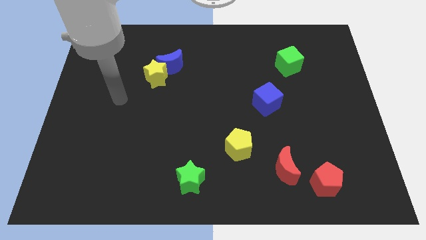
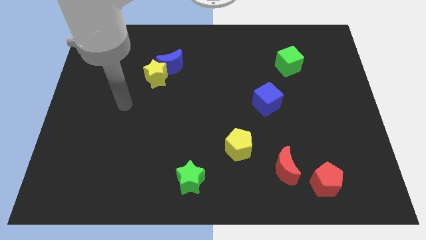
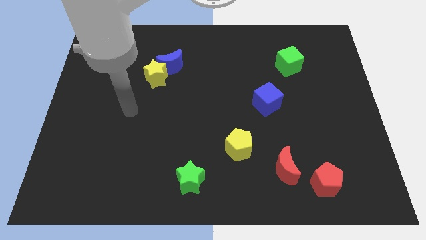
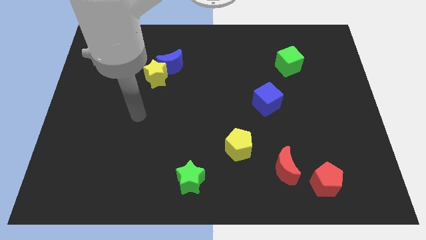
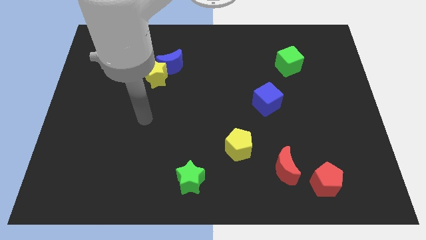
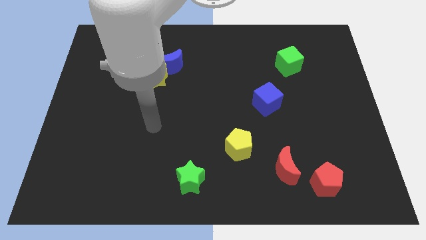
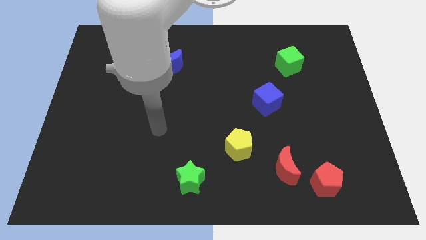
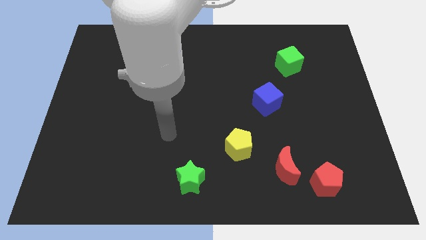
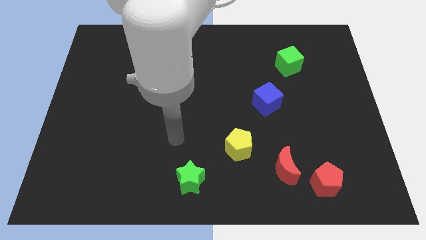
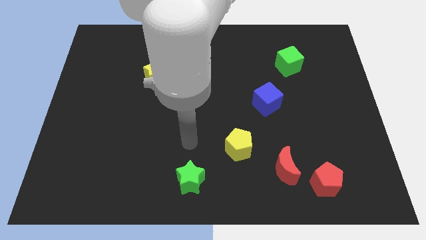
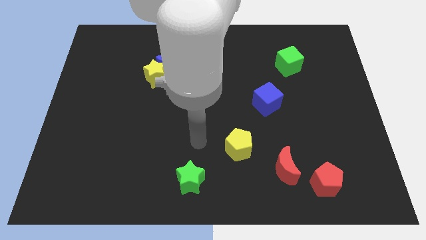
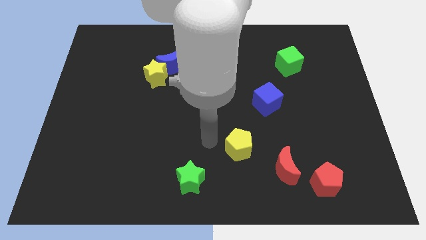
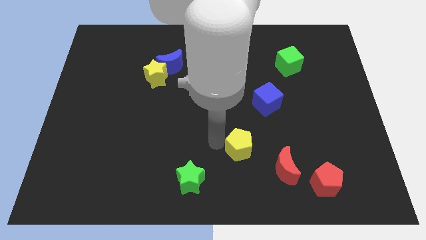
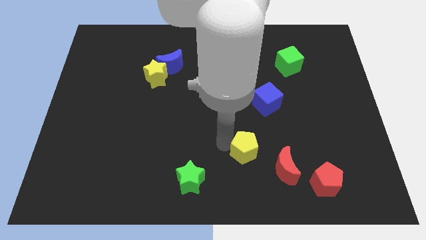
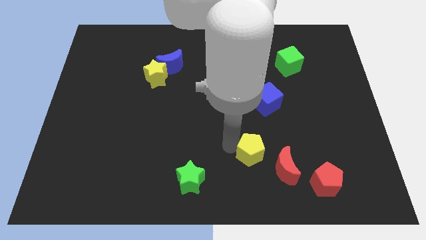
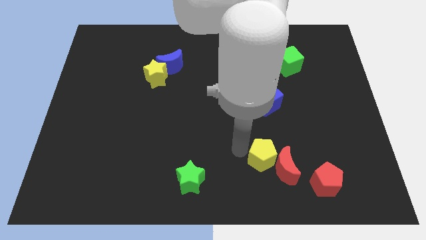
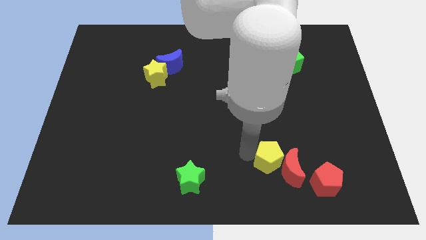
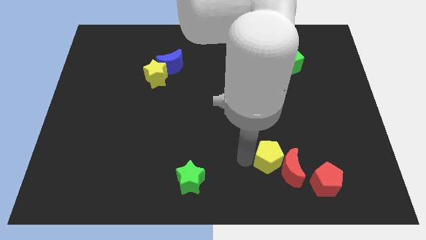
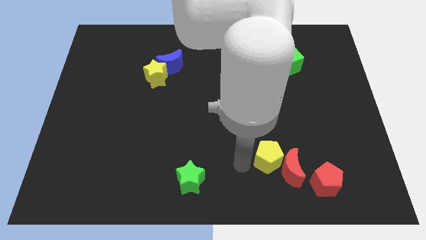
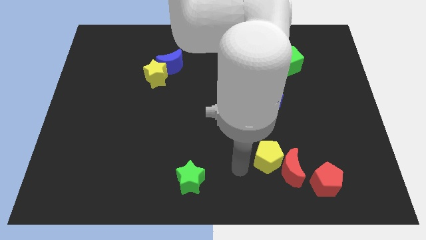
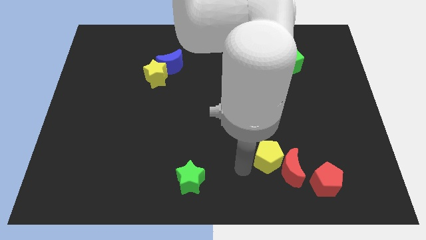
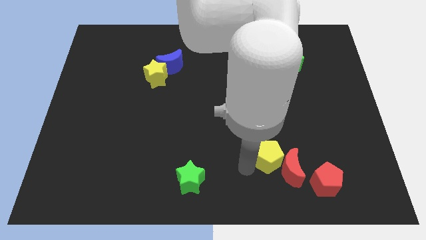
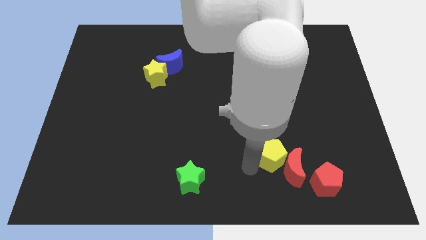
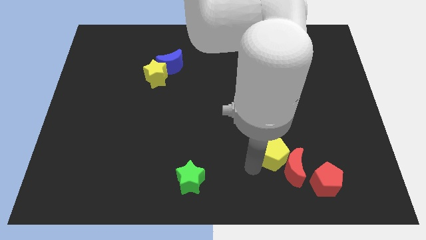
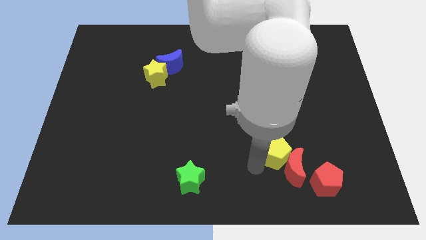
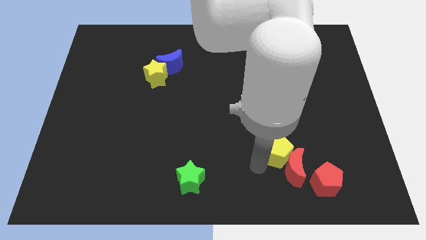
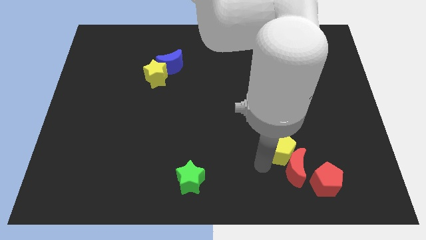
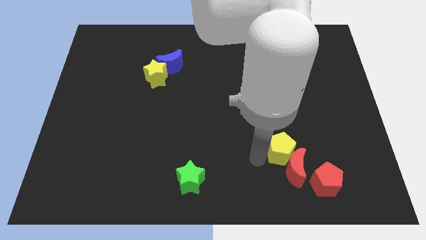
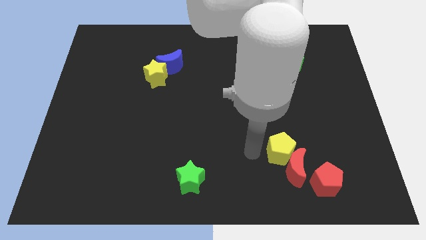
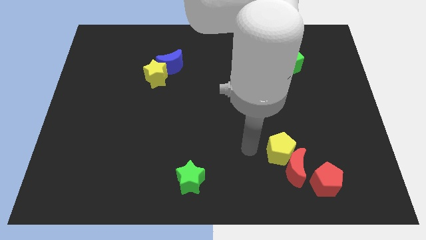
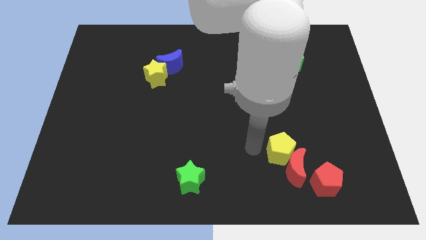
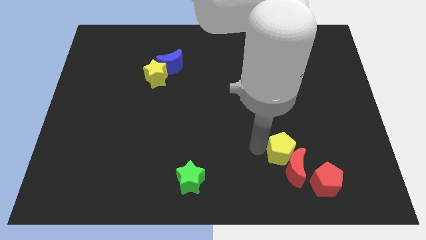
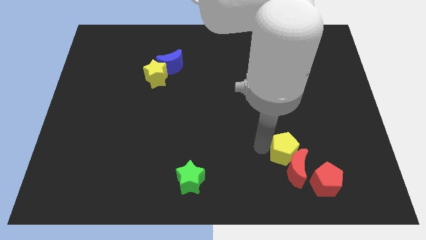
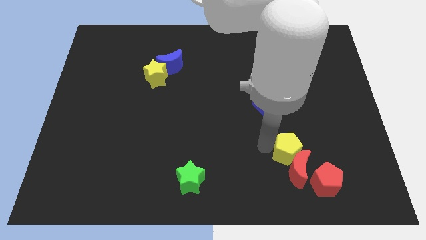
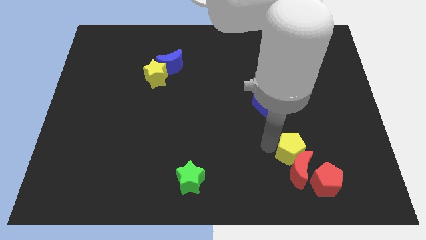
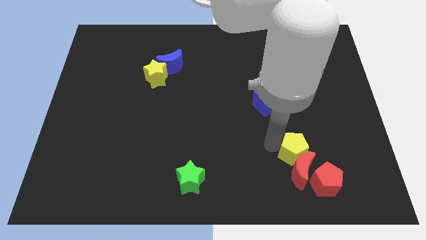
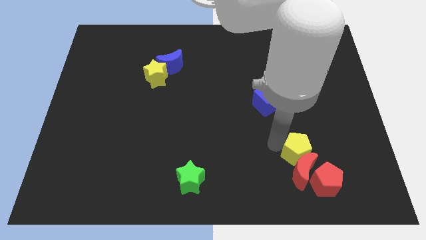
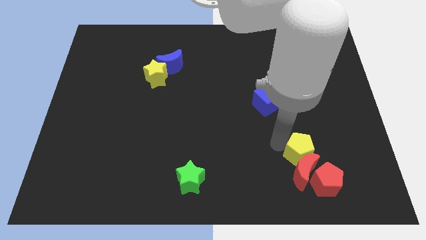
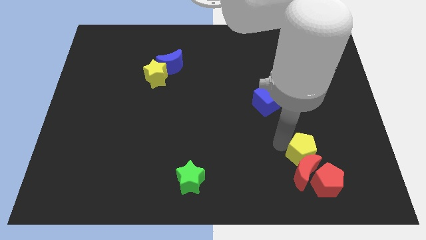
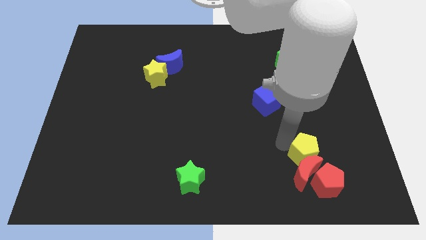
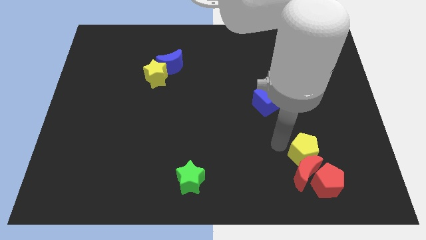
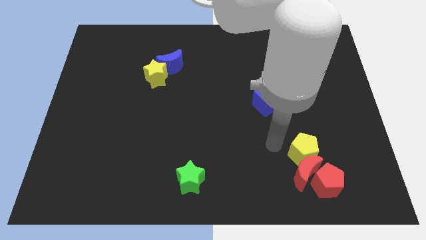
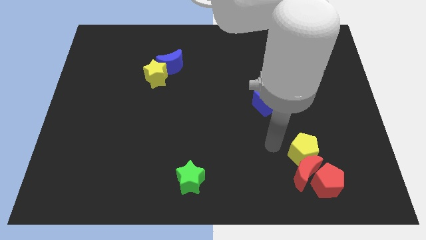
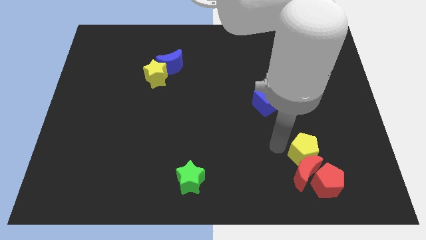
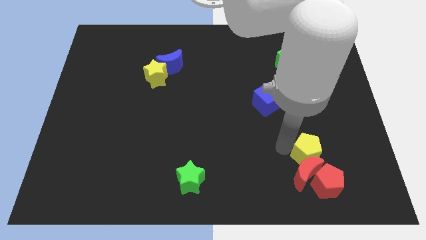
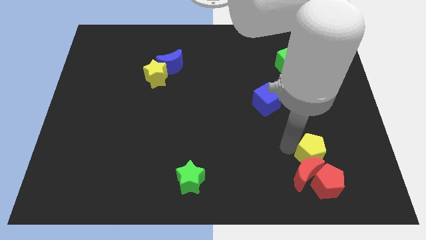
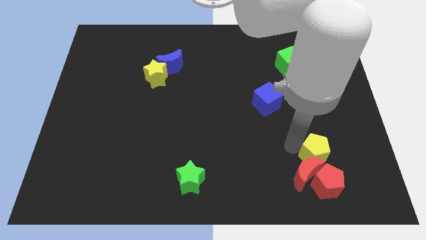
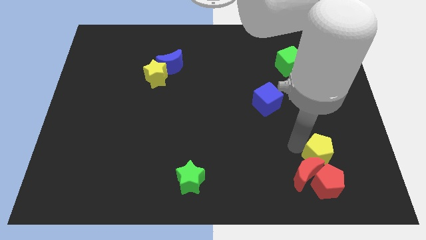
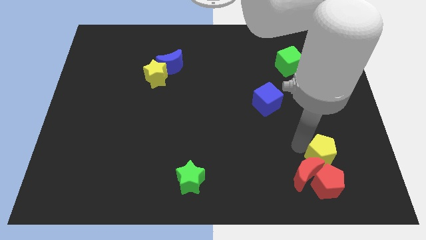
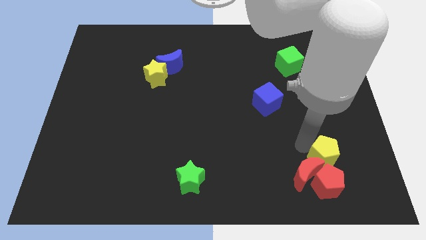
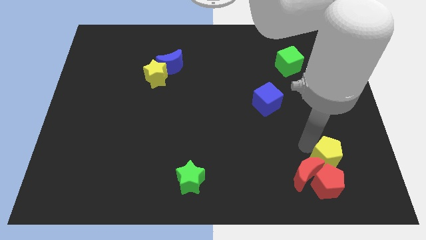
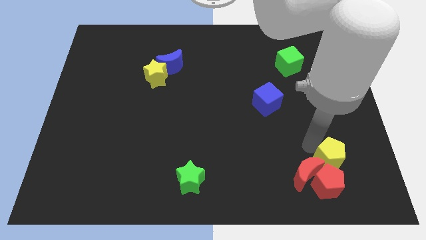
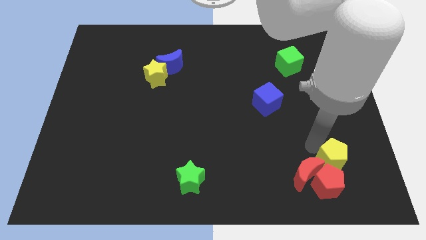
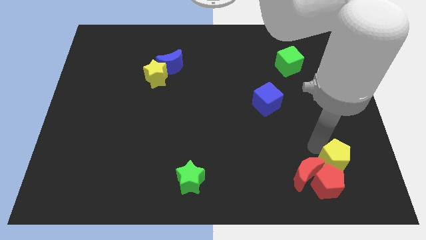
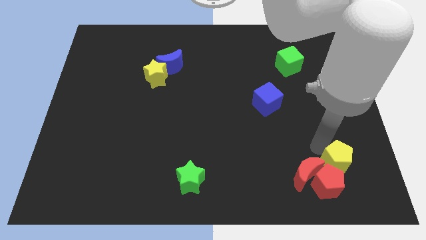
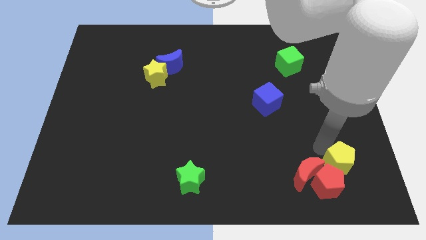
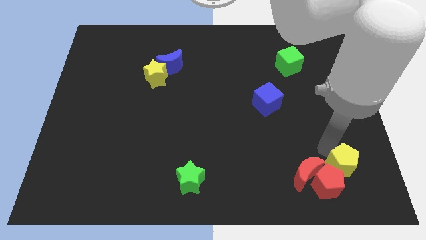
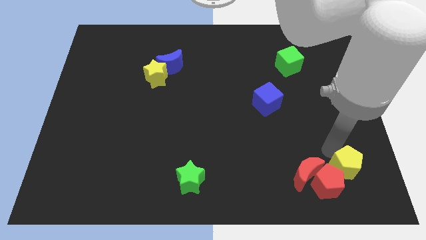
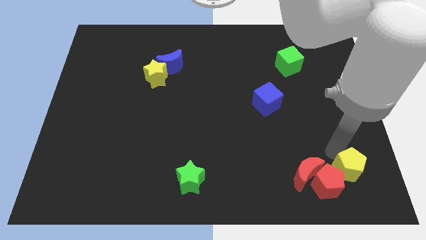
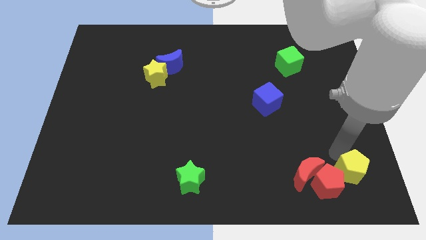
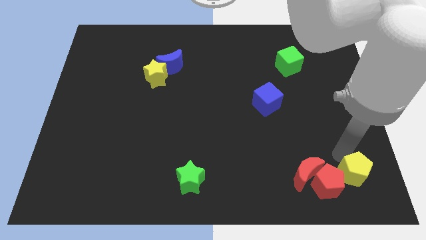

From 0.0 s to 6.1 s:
push the yellow pentagon to the bottom right
